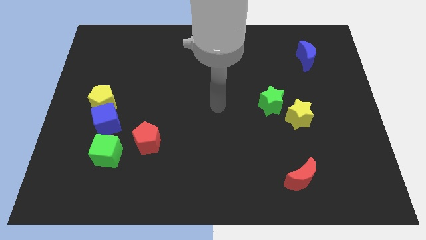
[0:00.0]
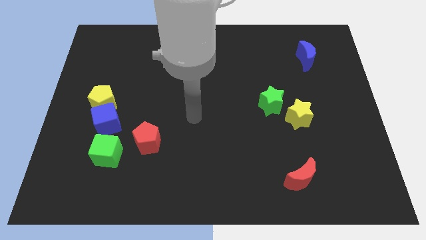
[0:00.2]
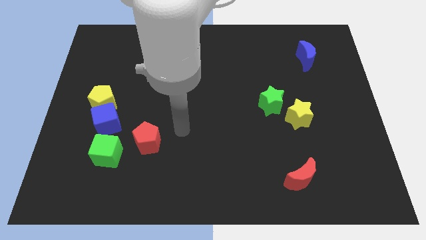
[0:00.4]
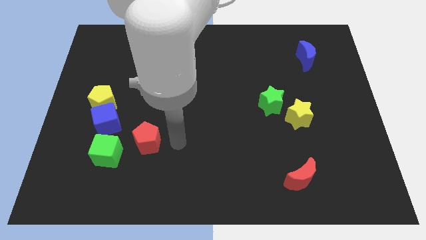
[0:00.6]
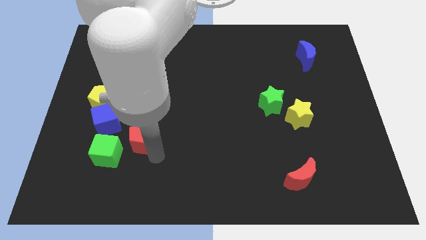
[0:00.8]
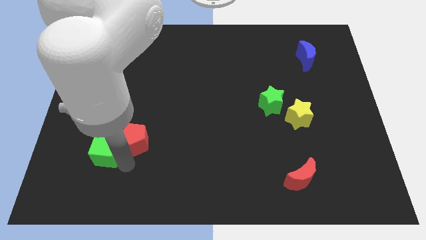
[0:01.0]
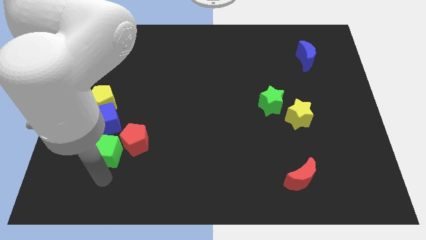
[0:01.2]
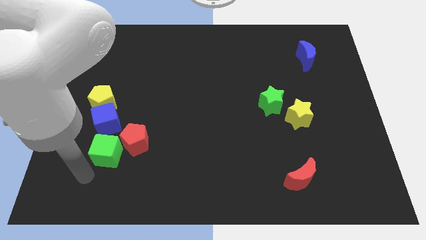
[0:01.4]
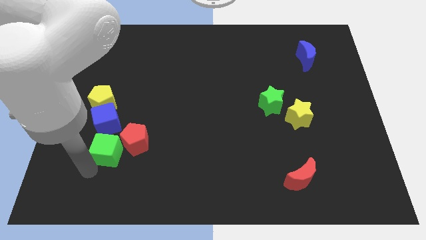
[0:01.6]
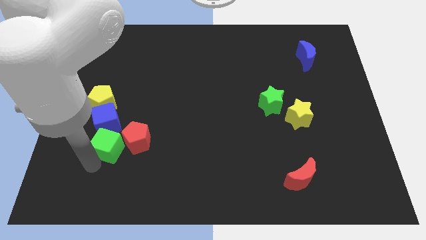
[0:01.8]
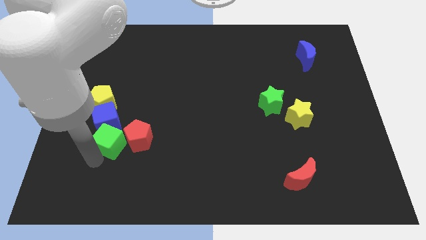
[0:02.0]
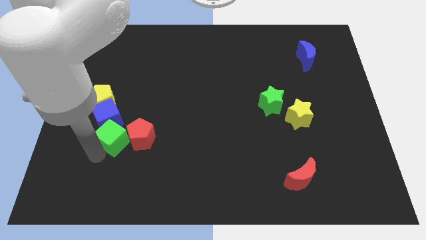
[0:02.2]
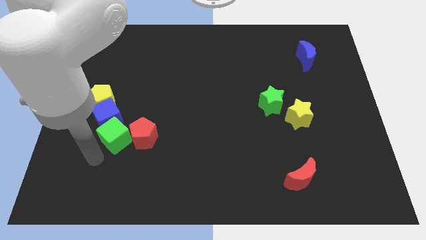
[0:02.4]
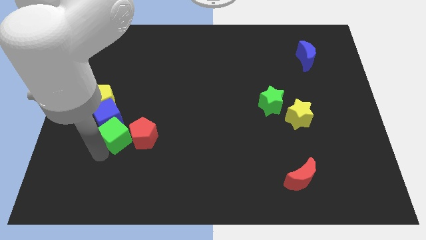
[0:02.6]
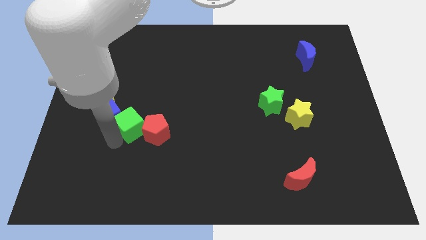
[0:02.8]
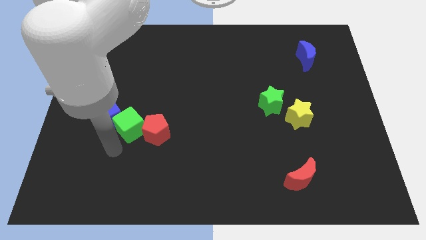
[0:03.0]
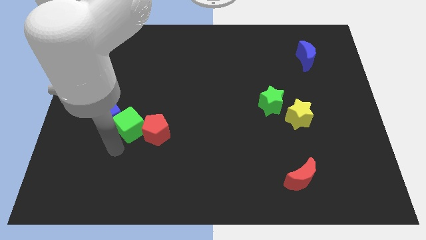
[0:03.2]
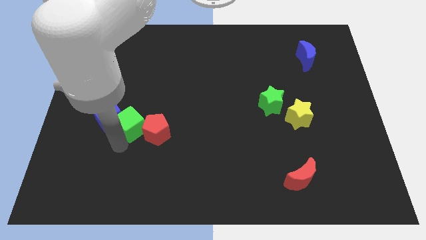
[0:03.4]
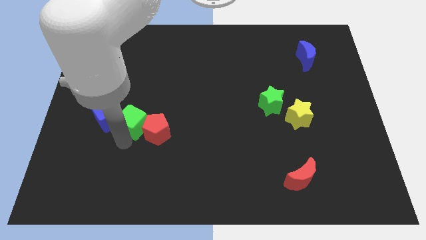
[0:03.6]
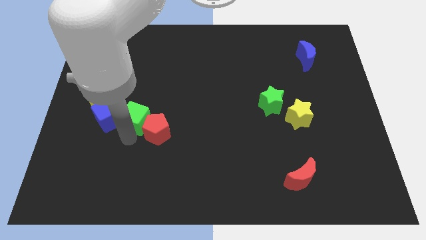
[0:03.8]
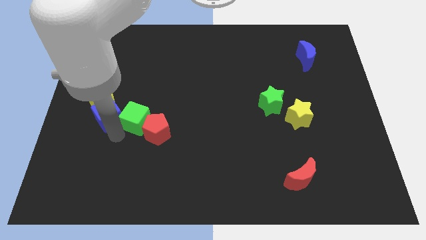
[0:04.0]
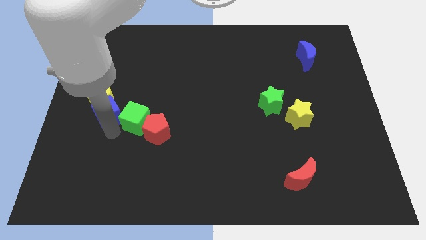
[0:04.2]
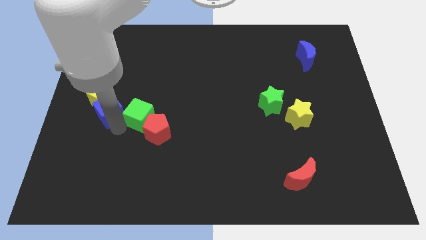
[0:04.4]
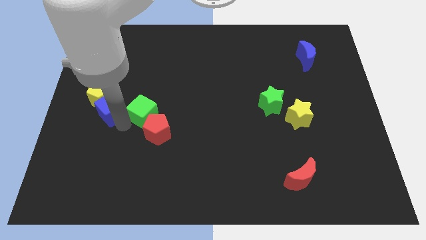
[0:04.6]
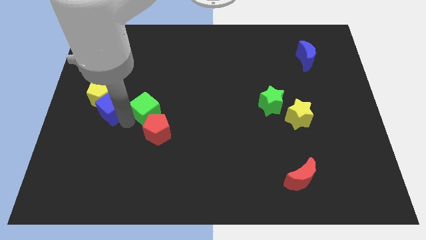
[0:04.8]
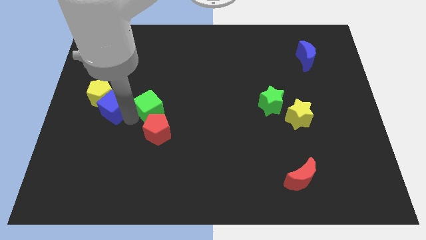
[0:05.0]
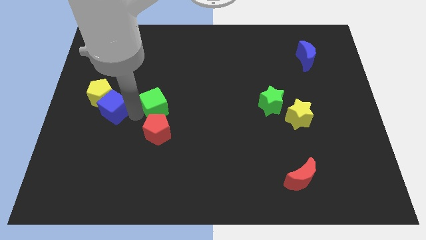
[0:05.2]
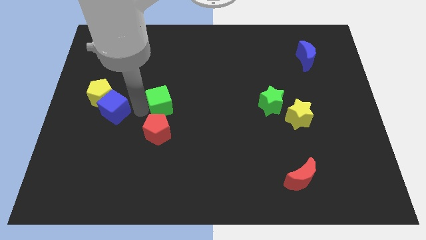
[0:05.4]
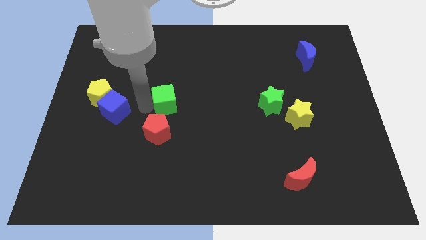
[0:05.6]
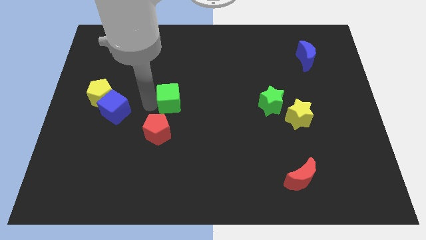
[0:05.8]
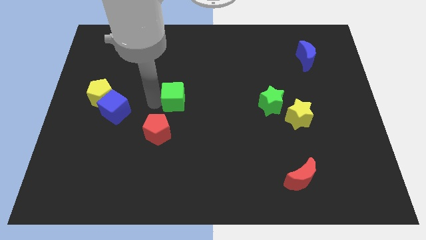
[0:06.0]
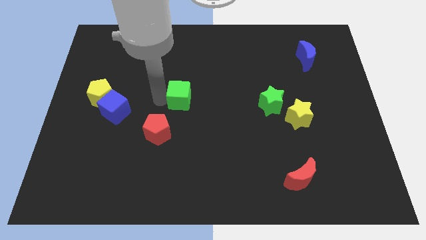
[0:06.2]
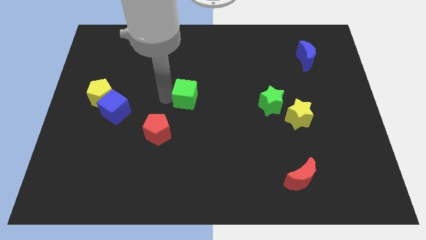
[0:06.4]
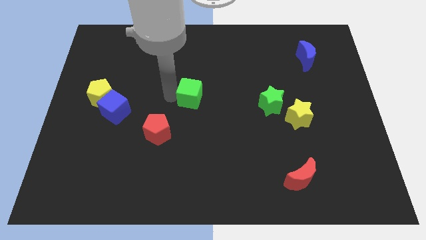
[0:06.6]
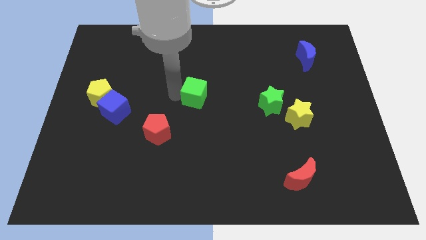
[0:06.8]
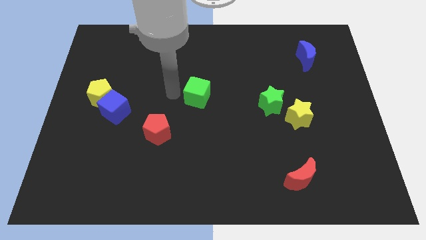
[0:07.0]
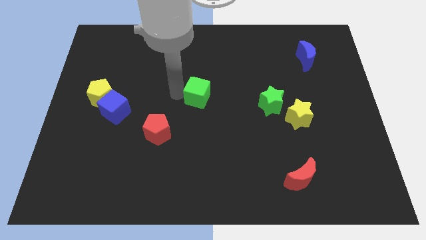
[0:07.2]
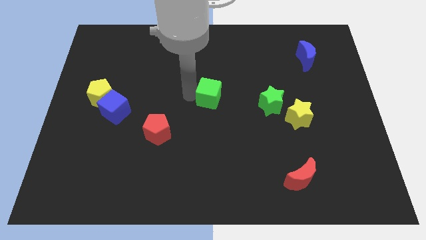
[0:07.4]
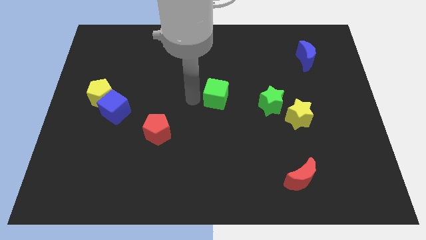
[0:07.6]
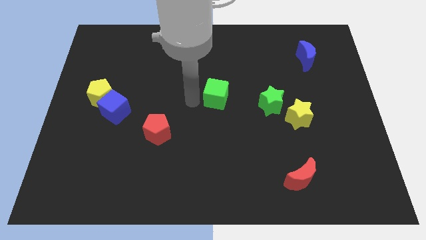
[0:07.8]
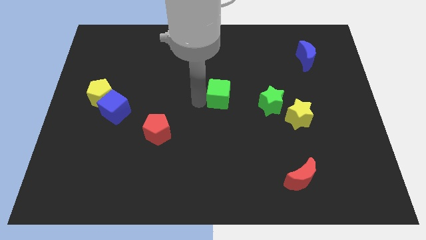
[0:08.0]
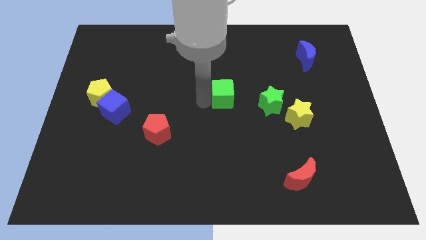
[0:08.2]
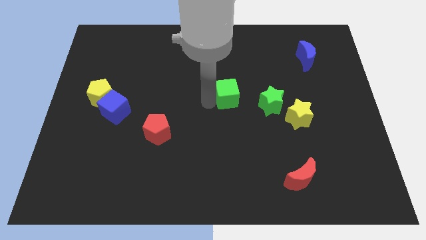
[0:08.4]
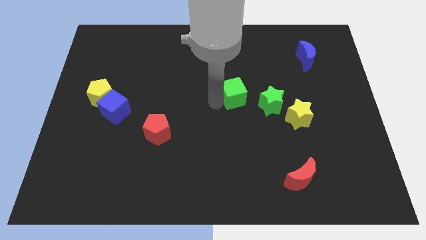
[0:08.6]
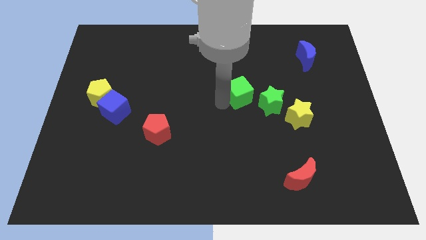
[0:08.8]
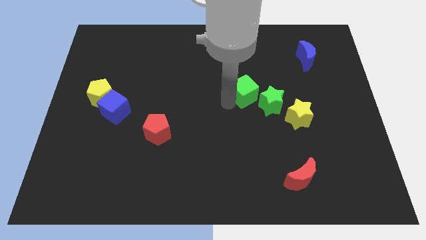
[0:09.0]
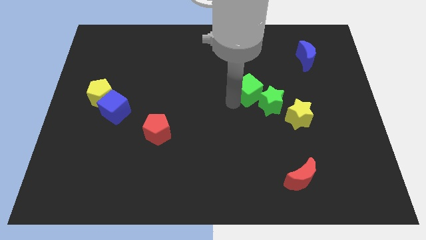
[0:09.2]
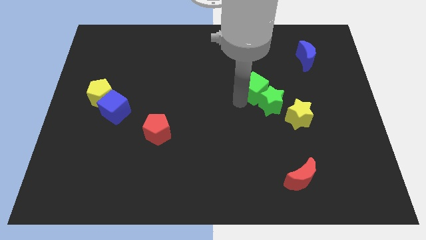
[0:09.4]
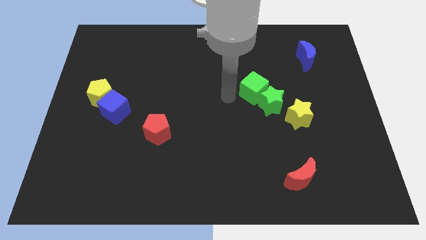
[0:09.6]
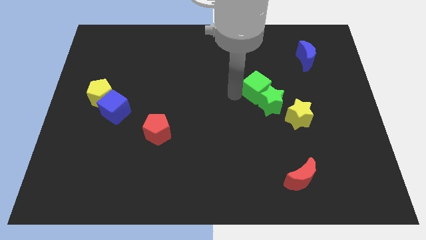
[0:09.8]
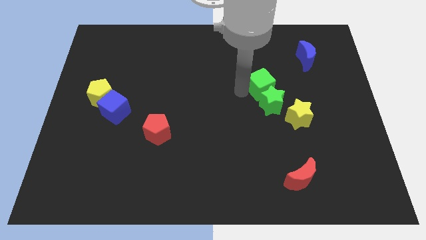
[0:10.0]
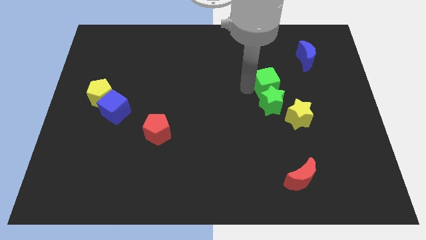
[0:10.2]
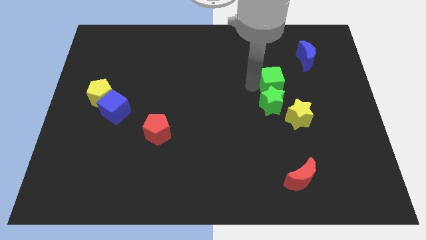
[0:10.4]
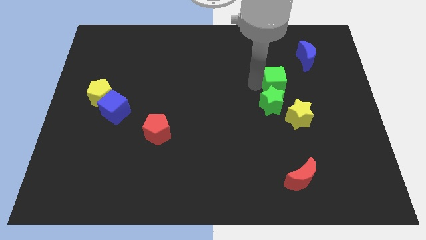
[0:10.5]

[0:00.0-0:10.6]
move the green cube above the yellow star
